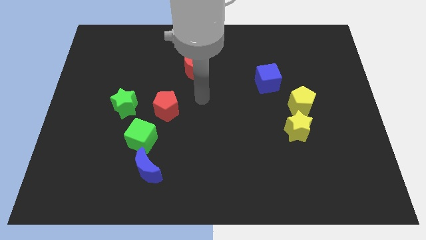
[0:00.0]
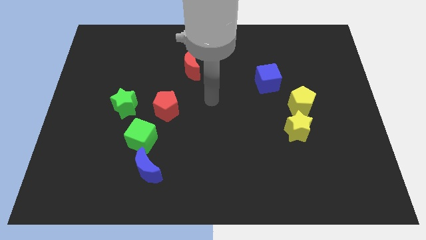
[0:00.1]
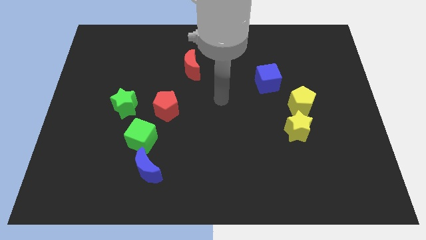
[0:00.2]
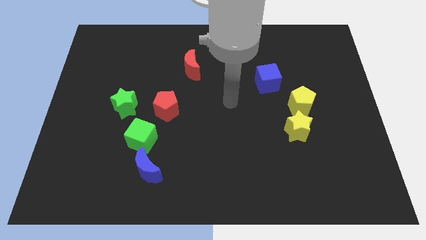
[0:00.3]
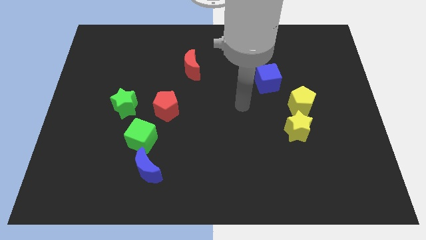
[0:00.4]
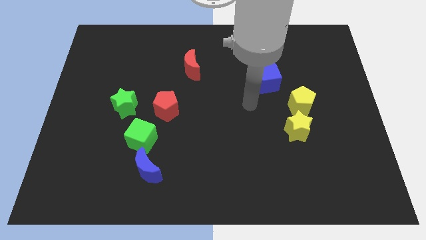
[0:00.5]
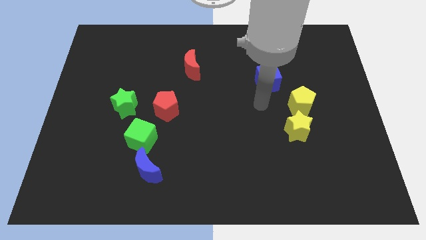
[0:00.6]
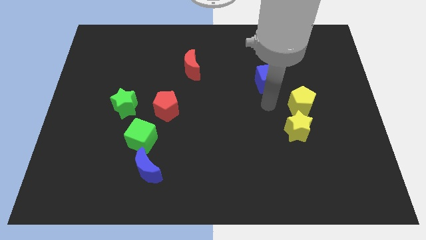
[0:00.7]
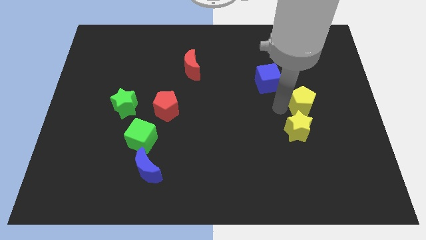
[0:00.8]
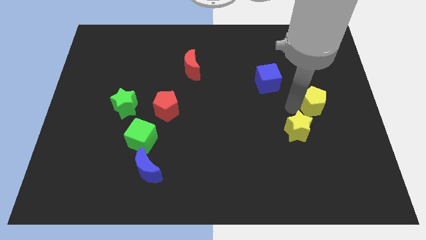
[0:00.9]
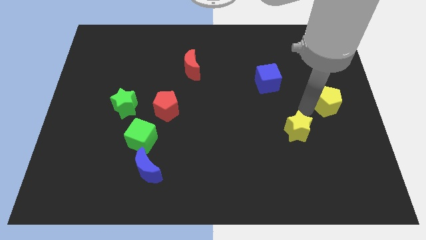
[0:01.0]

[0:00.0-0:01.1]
move the yellow star away from the yellow pentagon

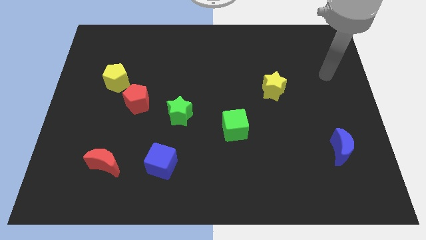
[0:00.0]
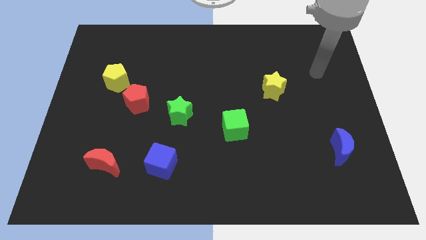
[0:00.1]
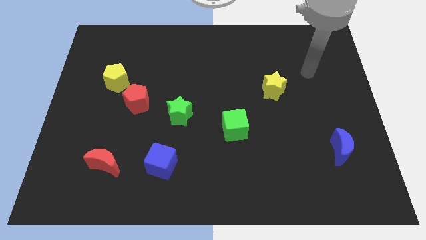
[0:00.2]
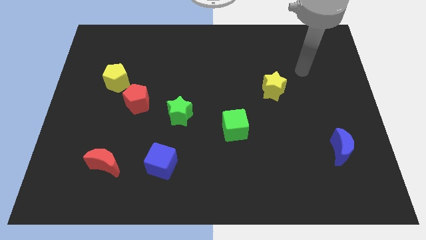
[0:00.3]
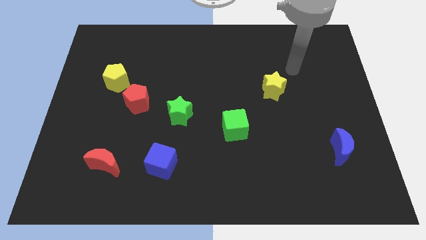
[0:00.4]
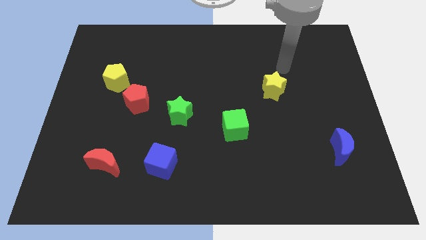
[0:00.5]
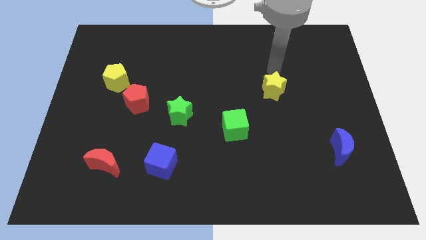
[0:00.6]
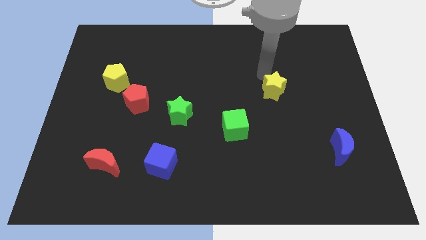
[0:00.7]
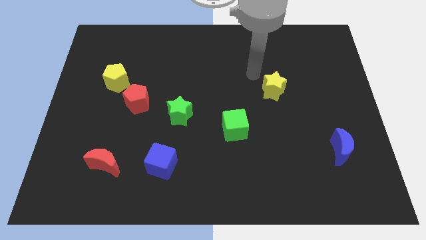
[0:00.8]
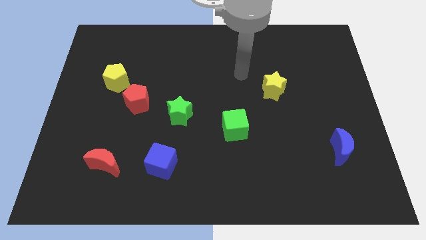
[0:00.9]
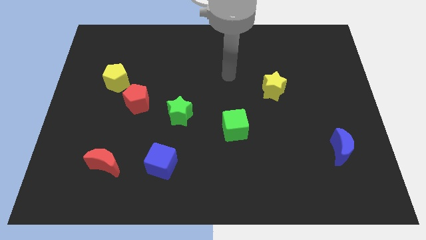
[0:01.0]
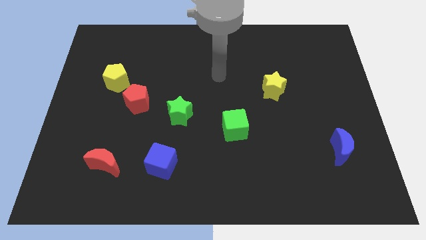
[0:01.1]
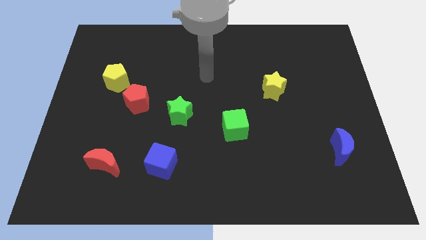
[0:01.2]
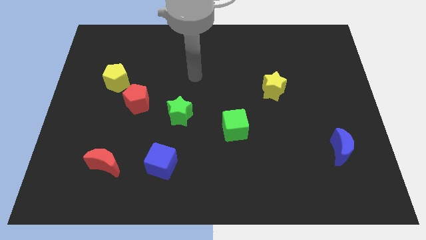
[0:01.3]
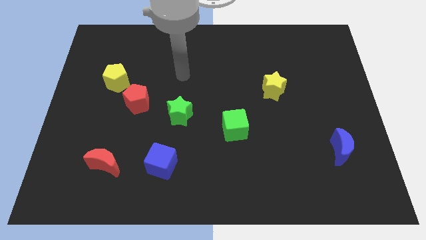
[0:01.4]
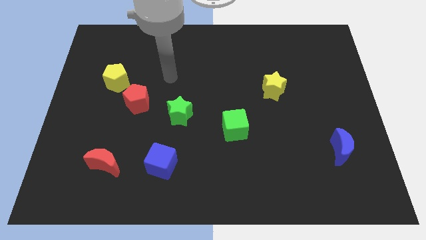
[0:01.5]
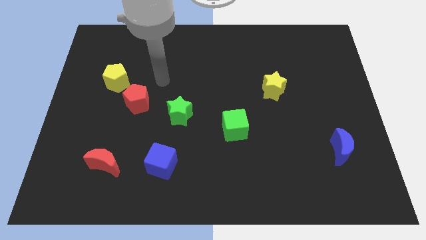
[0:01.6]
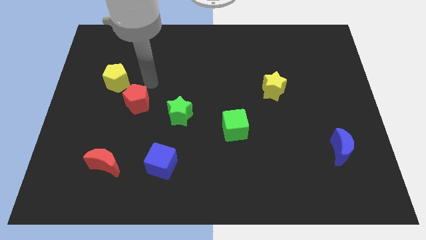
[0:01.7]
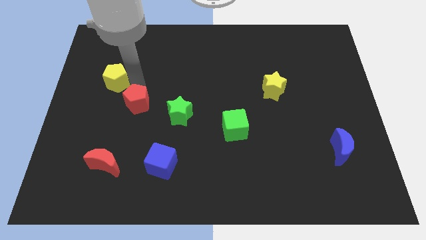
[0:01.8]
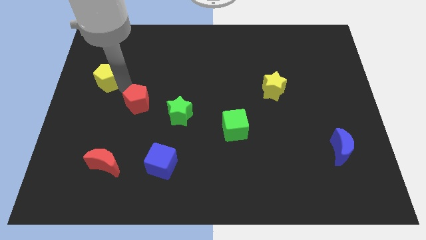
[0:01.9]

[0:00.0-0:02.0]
separate the red pentagon from the yellow pentagon

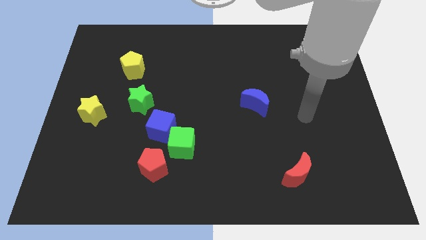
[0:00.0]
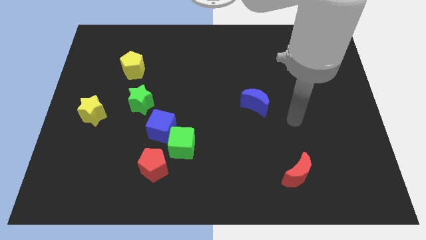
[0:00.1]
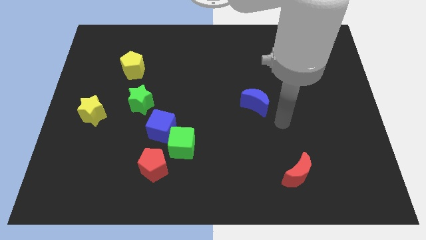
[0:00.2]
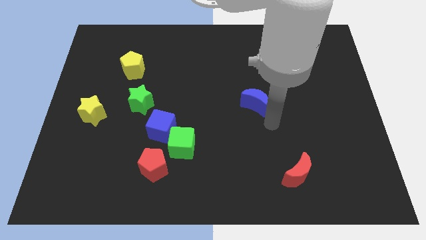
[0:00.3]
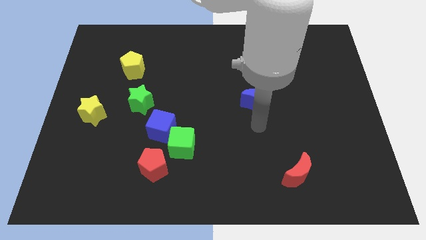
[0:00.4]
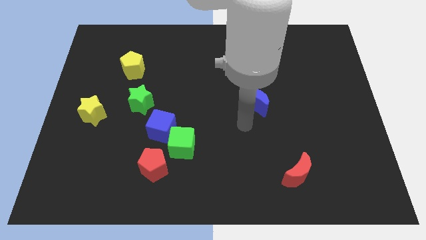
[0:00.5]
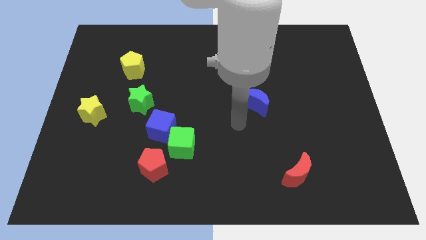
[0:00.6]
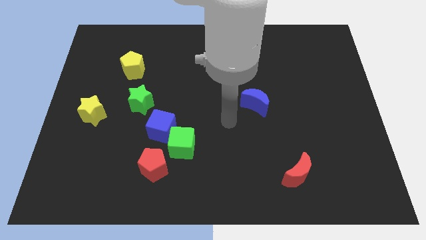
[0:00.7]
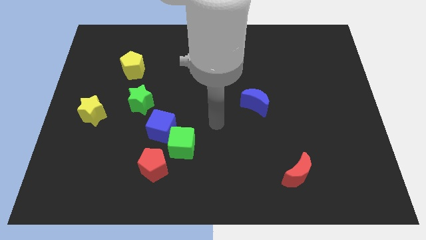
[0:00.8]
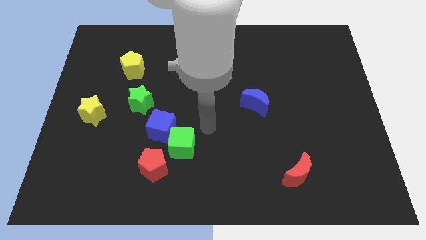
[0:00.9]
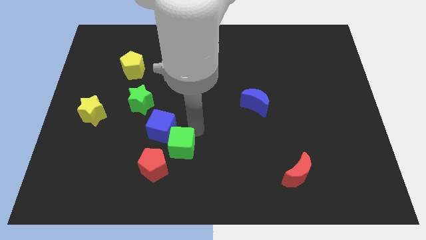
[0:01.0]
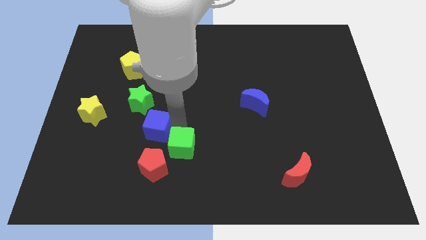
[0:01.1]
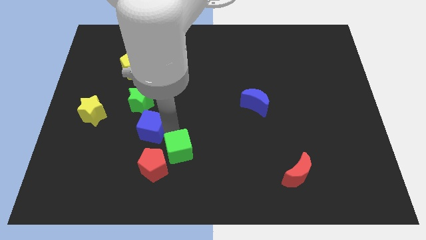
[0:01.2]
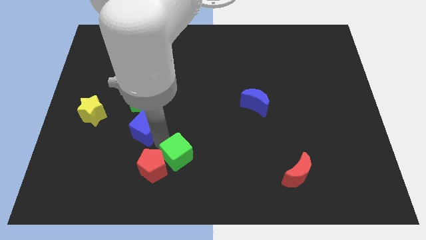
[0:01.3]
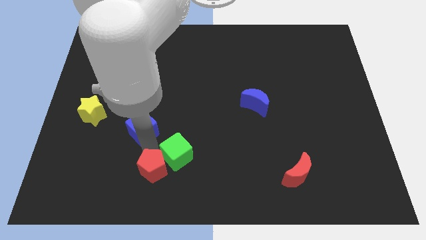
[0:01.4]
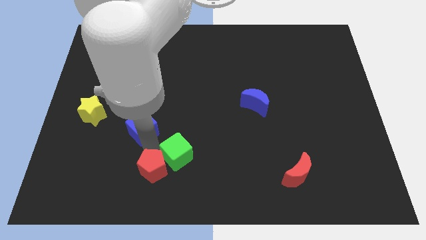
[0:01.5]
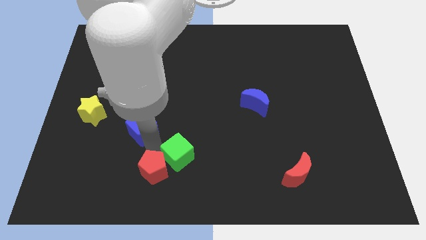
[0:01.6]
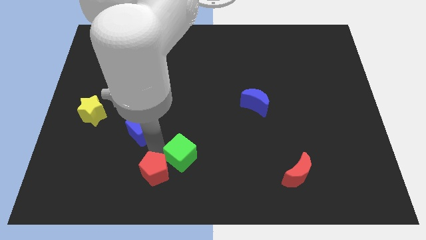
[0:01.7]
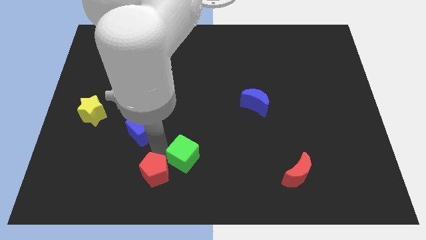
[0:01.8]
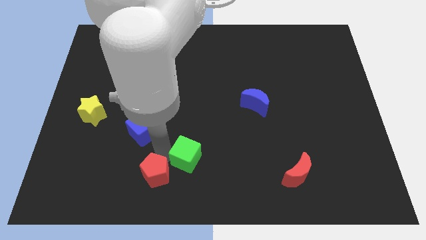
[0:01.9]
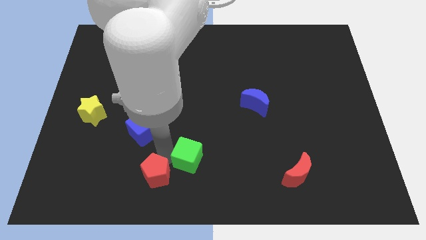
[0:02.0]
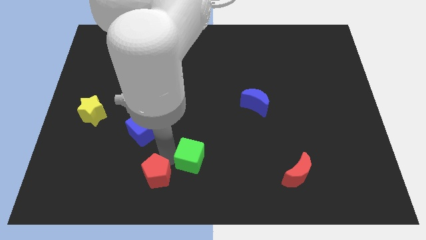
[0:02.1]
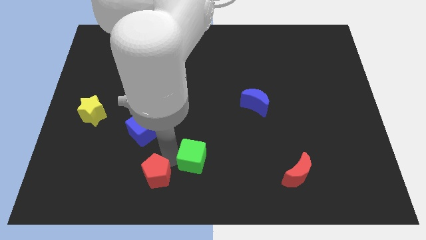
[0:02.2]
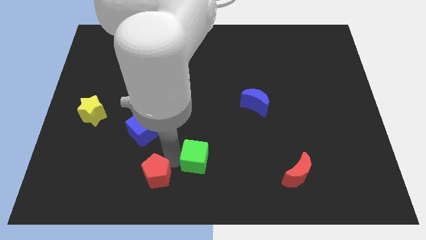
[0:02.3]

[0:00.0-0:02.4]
pull the green cube apart from the blue cube and red pentagon

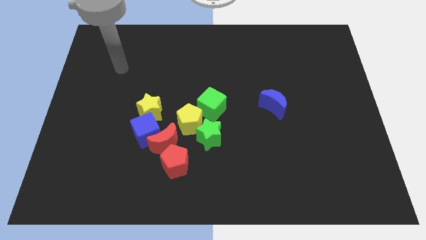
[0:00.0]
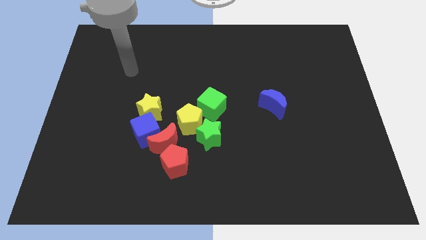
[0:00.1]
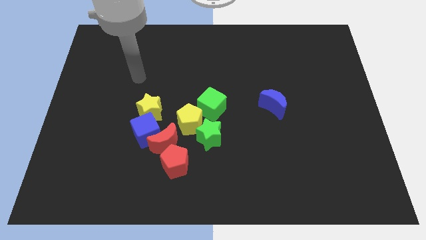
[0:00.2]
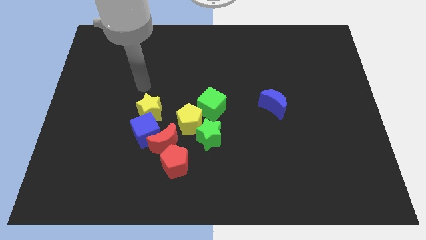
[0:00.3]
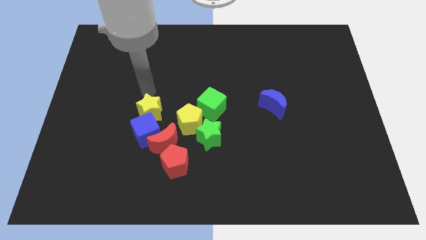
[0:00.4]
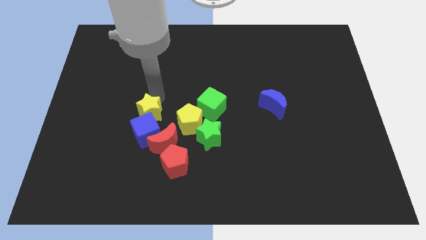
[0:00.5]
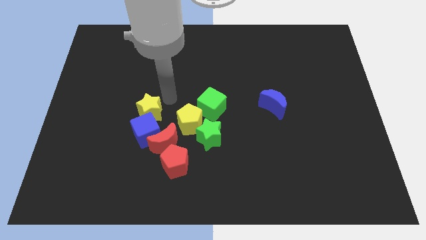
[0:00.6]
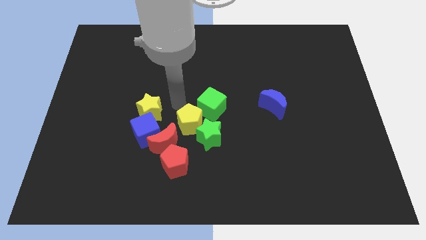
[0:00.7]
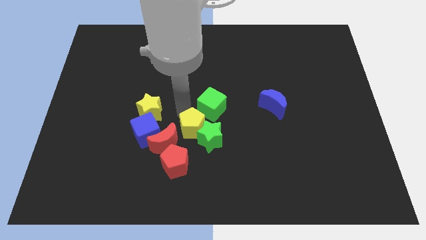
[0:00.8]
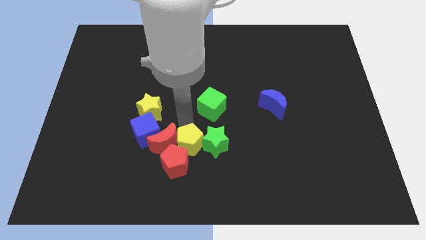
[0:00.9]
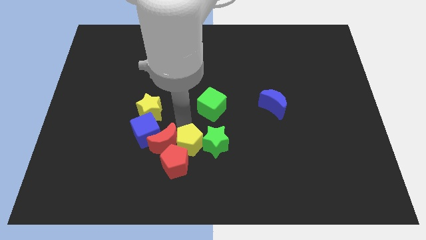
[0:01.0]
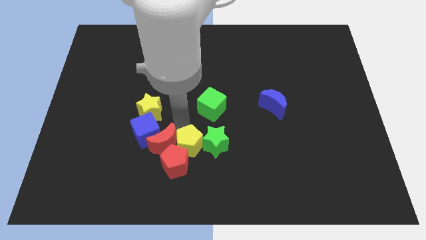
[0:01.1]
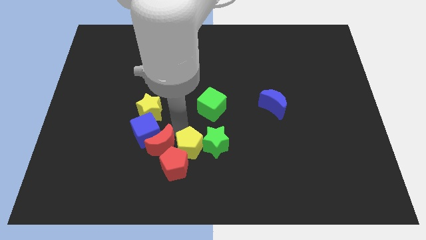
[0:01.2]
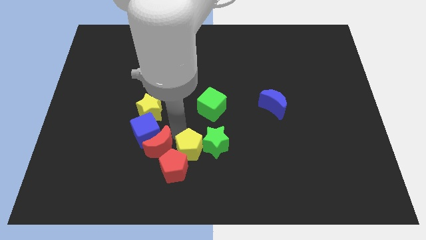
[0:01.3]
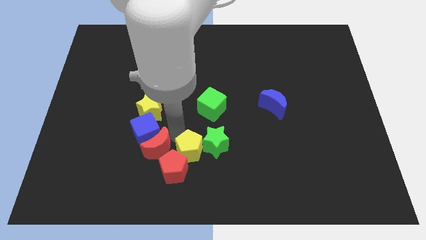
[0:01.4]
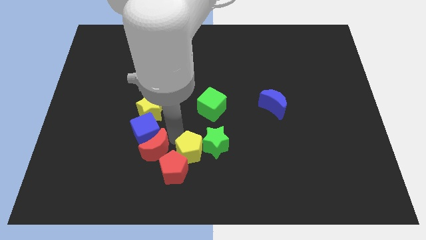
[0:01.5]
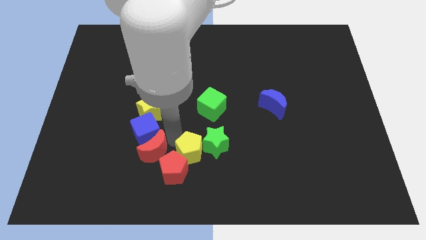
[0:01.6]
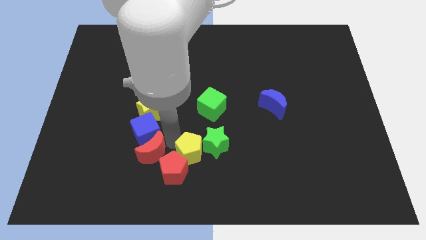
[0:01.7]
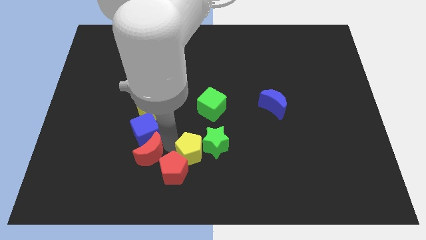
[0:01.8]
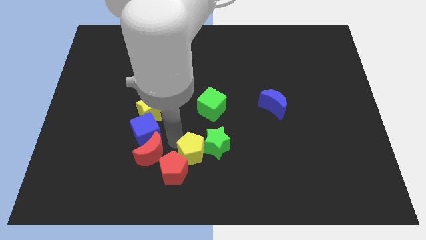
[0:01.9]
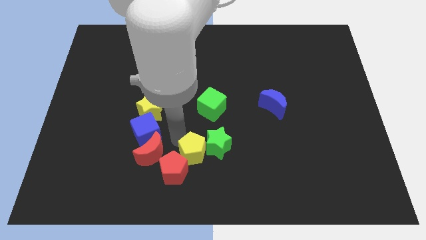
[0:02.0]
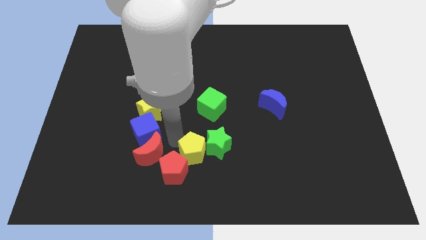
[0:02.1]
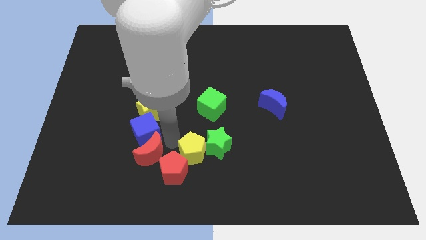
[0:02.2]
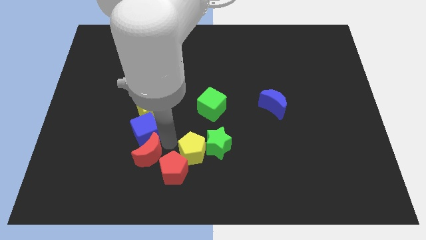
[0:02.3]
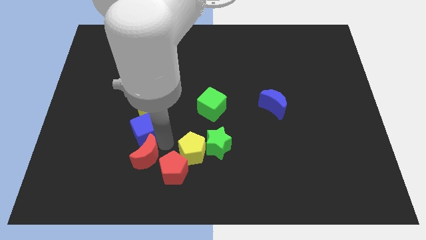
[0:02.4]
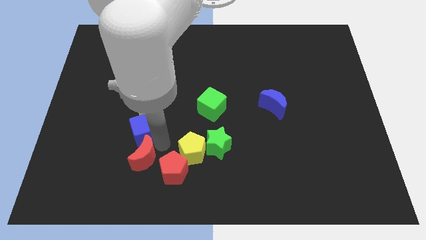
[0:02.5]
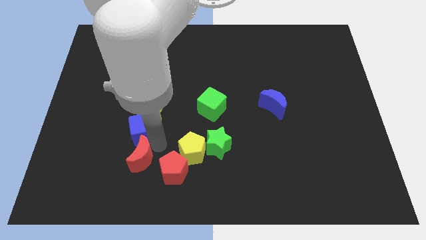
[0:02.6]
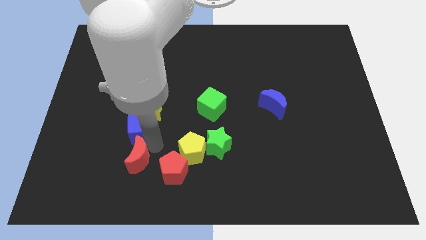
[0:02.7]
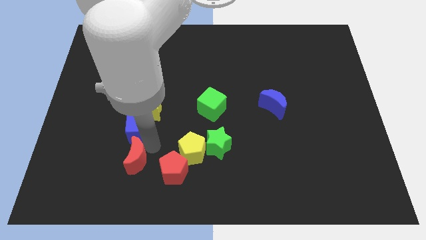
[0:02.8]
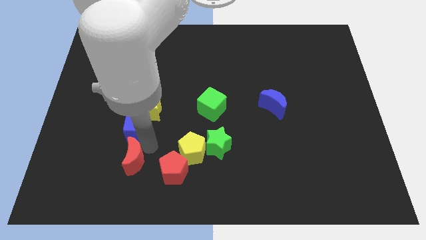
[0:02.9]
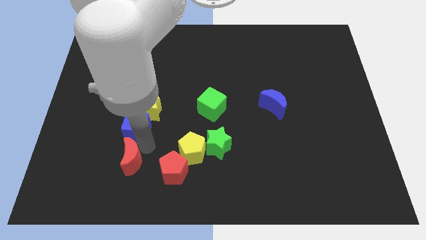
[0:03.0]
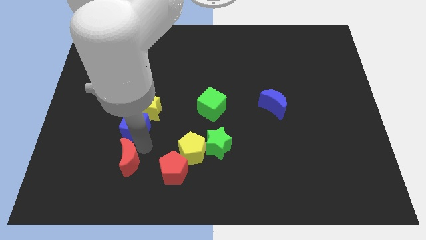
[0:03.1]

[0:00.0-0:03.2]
separate the red moon from the group

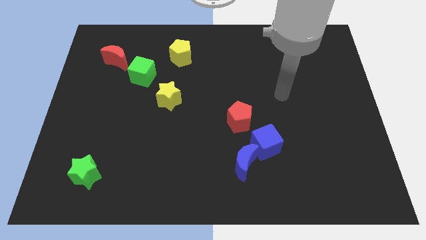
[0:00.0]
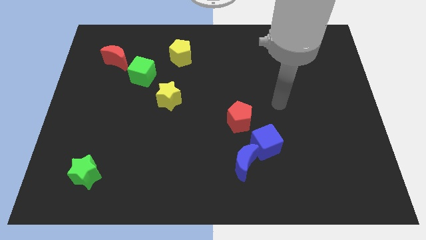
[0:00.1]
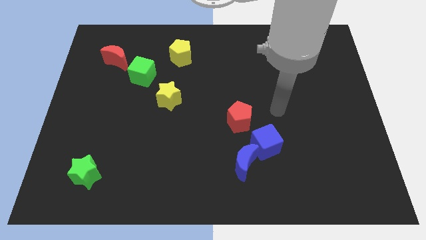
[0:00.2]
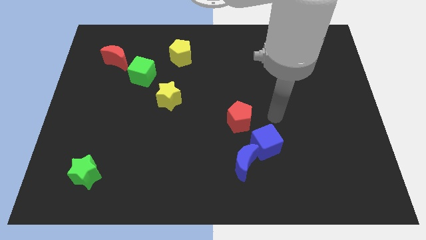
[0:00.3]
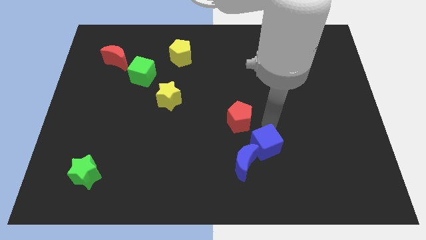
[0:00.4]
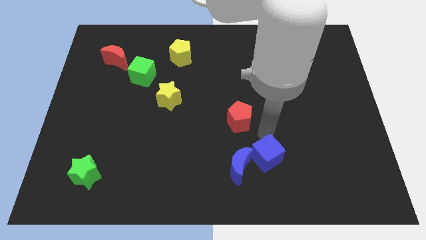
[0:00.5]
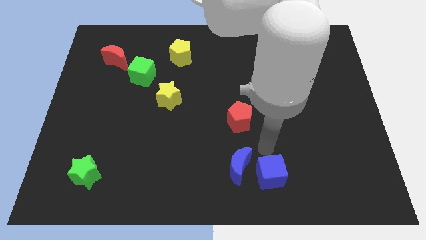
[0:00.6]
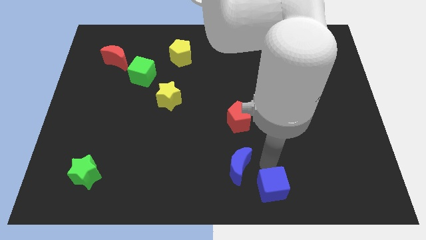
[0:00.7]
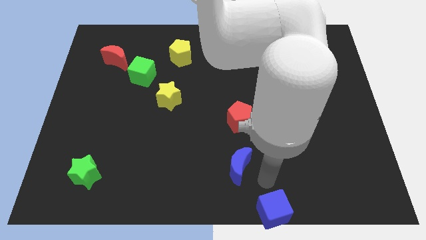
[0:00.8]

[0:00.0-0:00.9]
pull the blue moon apart from the blue cube
